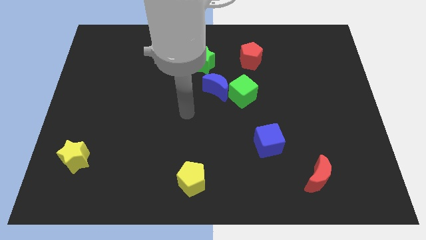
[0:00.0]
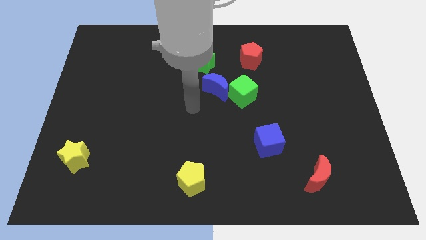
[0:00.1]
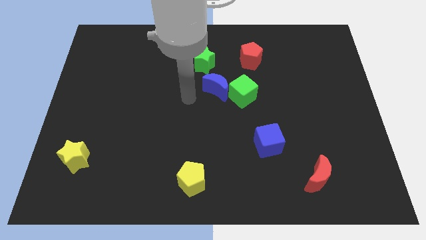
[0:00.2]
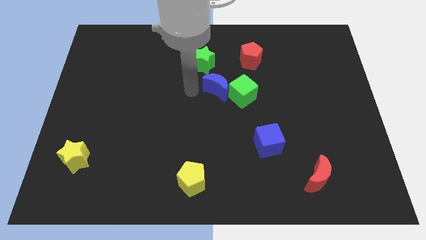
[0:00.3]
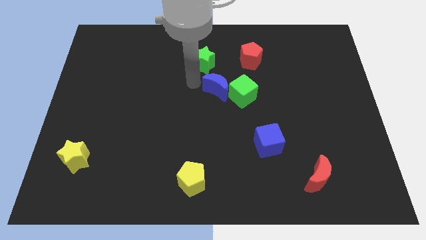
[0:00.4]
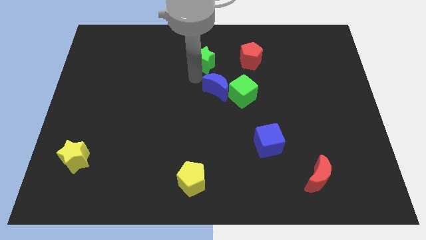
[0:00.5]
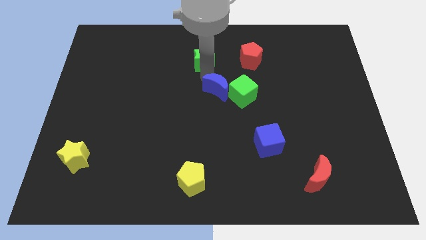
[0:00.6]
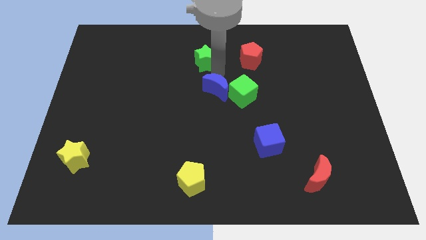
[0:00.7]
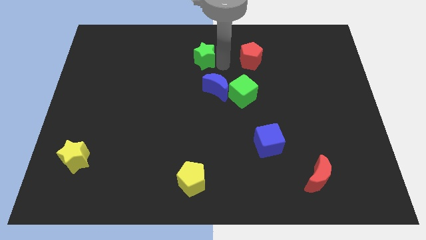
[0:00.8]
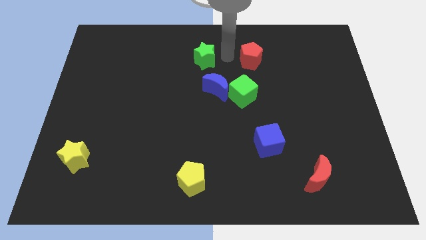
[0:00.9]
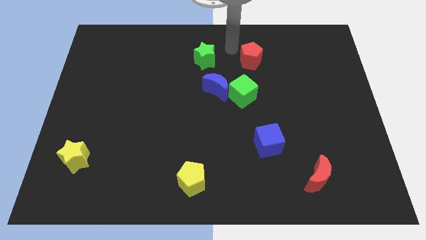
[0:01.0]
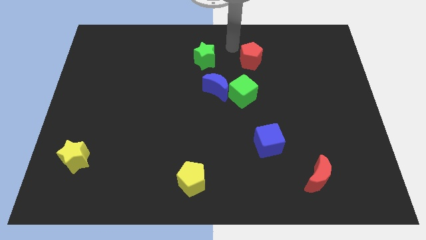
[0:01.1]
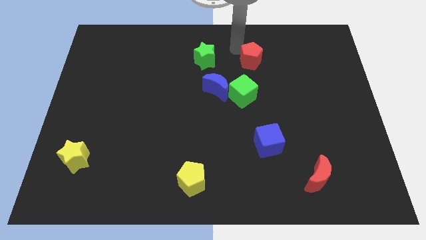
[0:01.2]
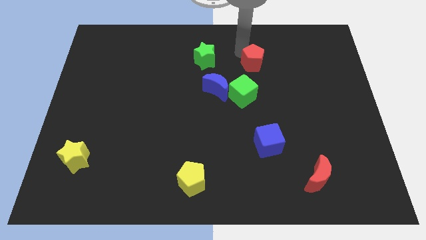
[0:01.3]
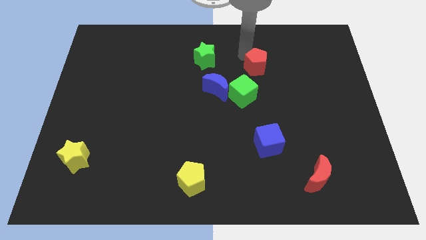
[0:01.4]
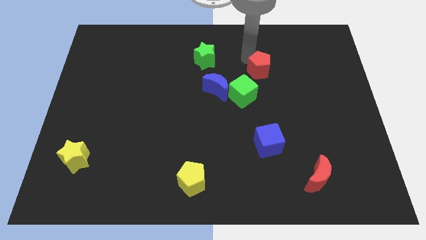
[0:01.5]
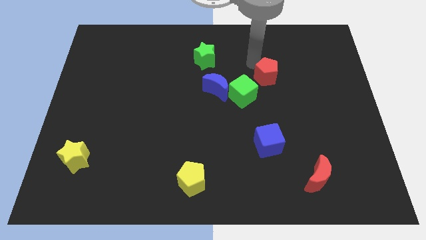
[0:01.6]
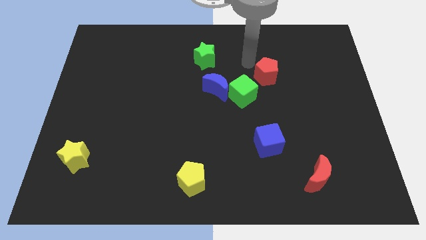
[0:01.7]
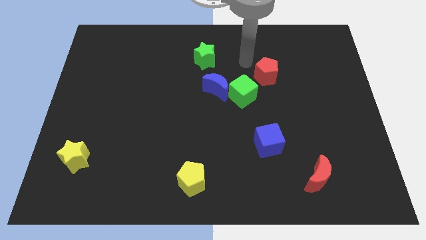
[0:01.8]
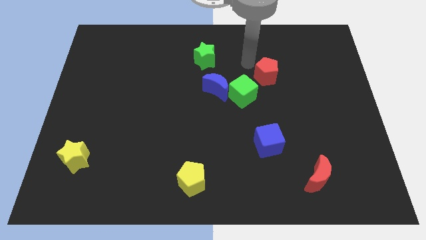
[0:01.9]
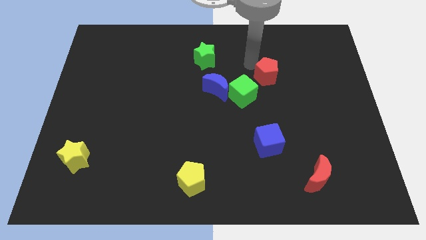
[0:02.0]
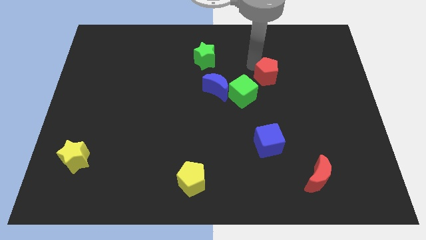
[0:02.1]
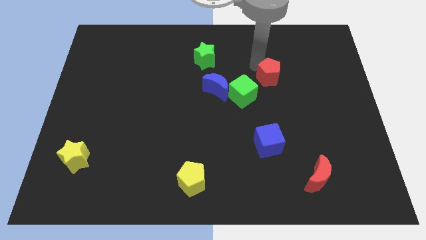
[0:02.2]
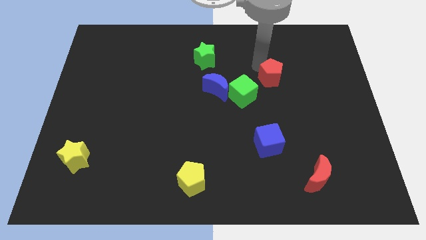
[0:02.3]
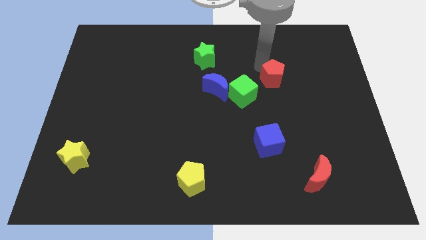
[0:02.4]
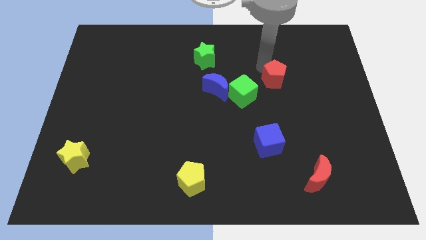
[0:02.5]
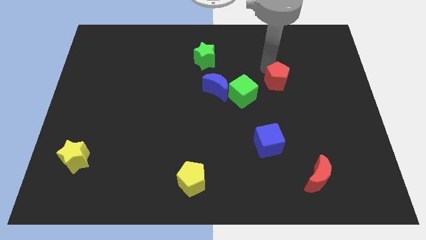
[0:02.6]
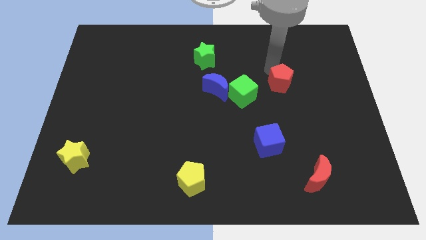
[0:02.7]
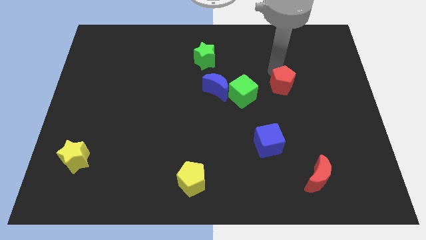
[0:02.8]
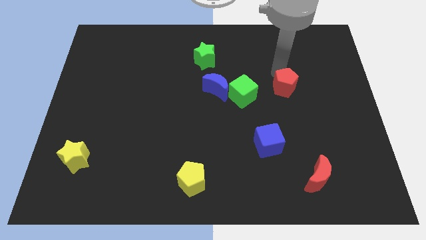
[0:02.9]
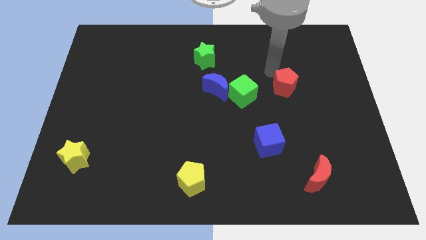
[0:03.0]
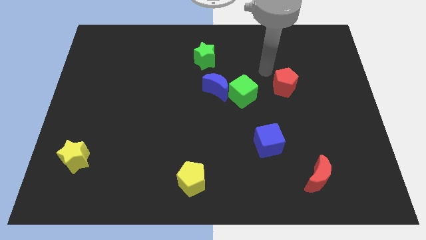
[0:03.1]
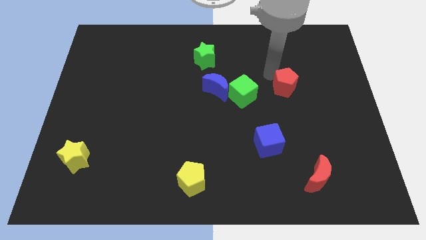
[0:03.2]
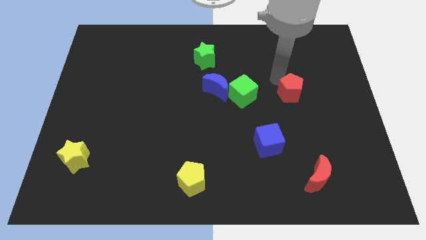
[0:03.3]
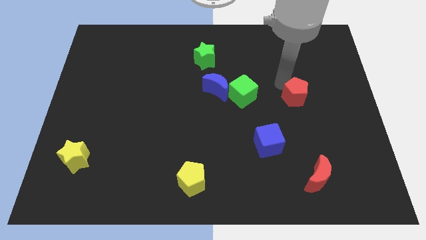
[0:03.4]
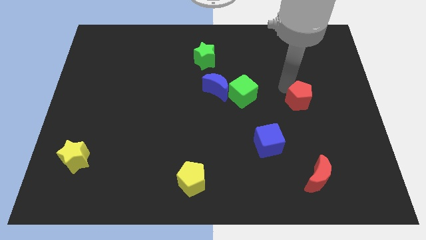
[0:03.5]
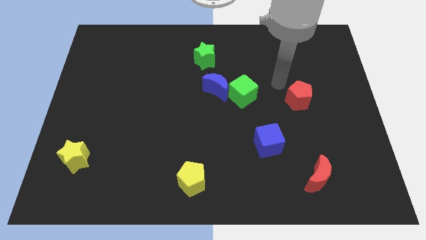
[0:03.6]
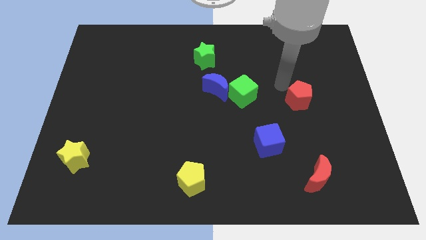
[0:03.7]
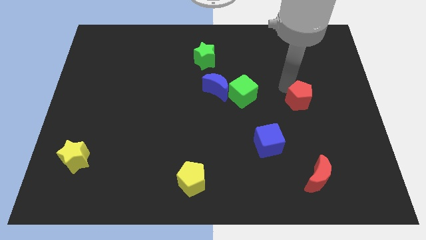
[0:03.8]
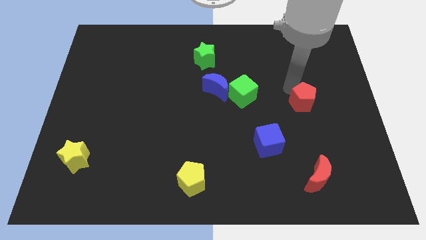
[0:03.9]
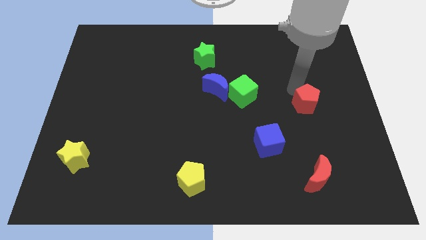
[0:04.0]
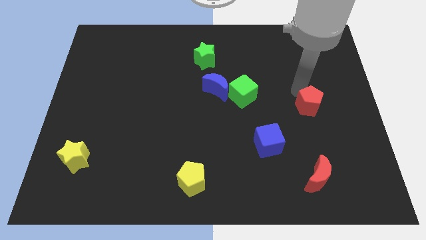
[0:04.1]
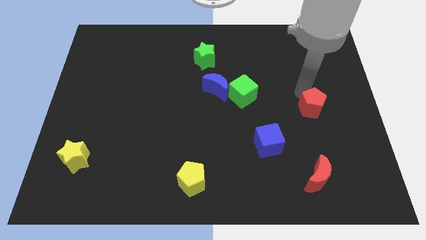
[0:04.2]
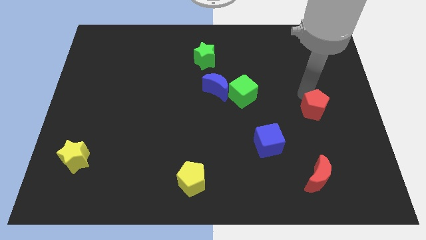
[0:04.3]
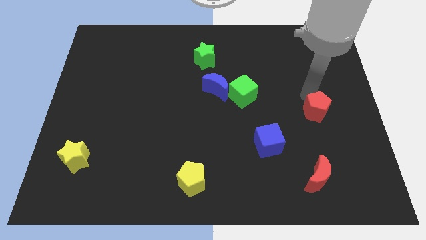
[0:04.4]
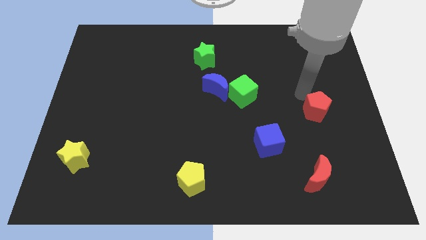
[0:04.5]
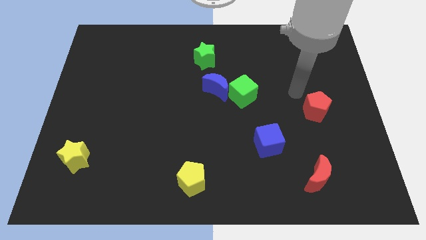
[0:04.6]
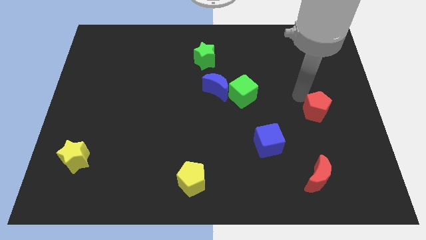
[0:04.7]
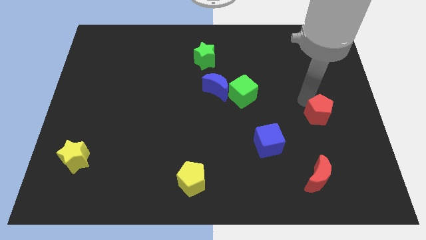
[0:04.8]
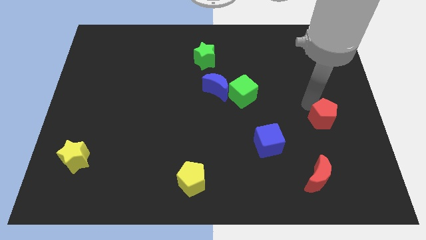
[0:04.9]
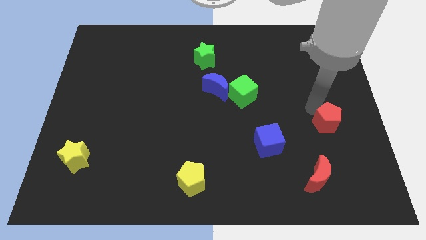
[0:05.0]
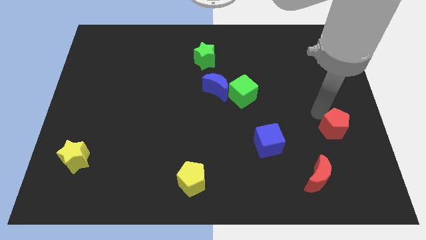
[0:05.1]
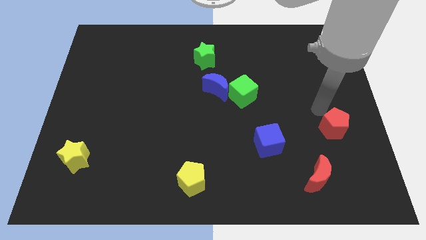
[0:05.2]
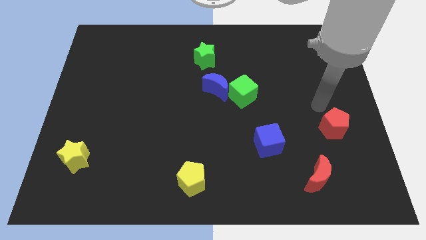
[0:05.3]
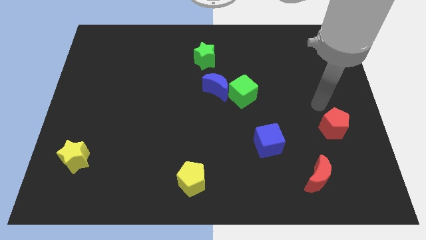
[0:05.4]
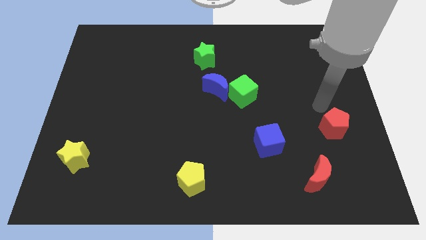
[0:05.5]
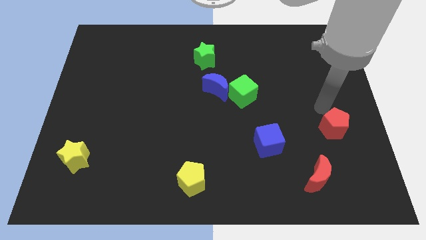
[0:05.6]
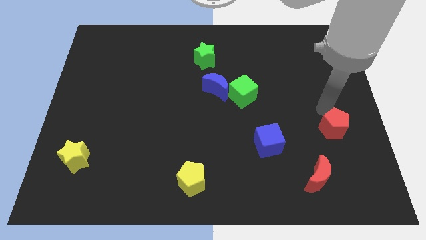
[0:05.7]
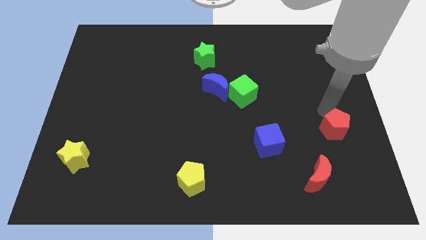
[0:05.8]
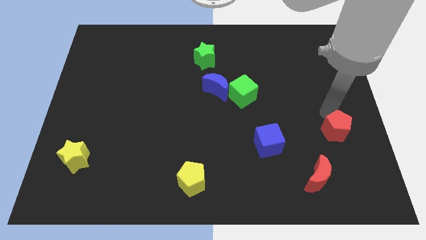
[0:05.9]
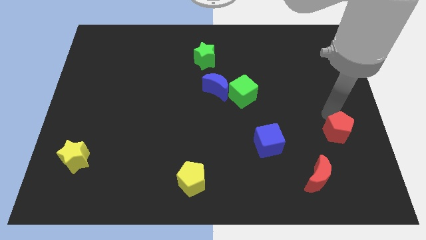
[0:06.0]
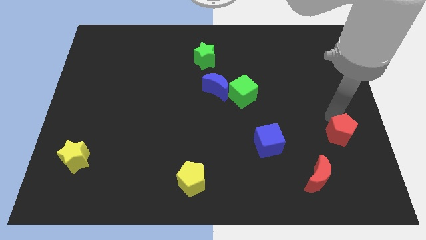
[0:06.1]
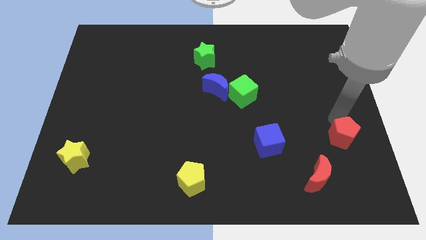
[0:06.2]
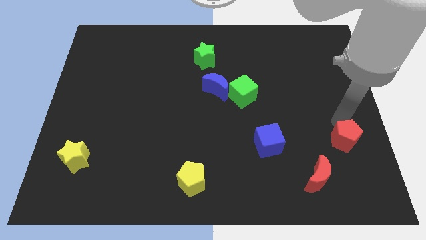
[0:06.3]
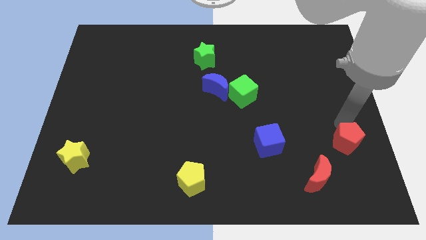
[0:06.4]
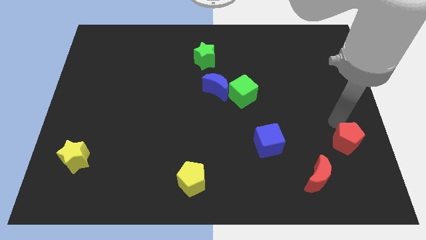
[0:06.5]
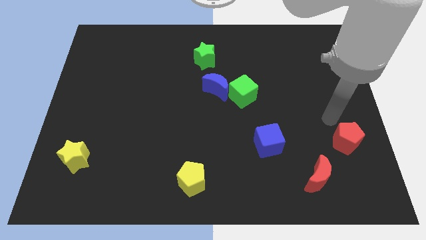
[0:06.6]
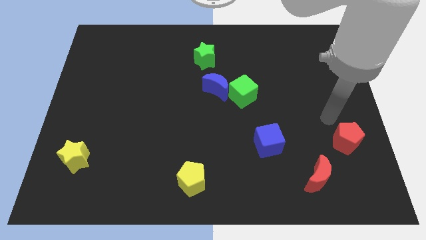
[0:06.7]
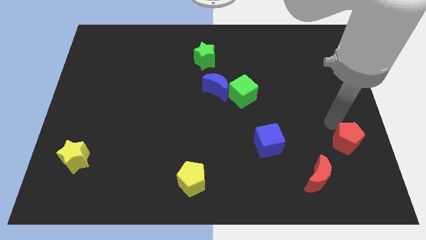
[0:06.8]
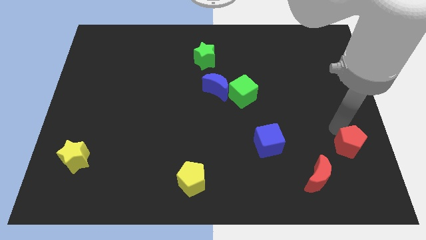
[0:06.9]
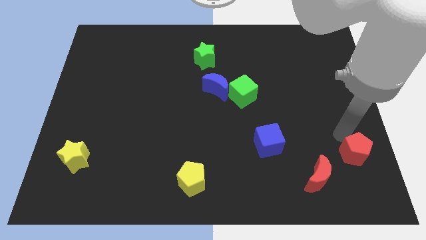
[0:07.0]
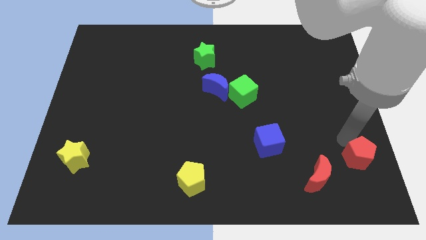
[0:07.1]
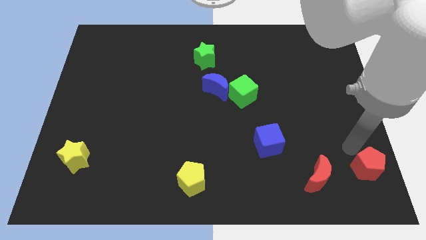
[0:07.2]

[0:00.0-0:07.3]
push the red pentagon to the bottom right
